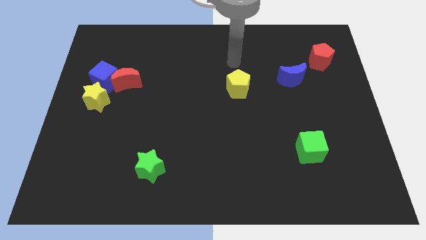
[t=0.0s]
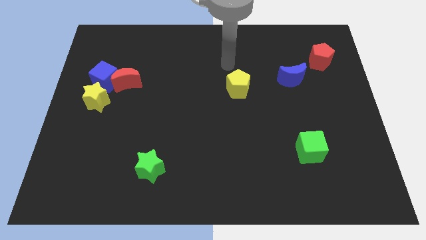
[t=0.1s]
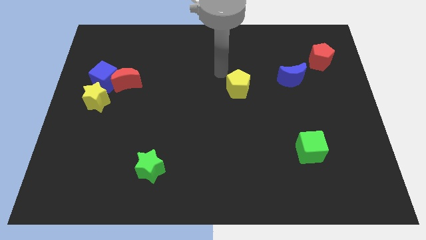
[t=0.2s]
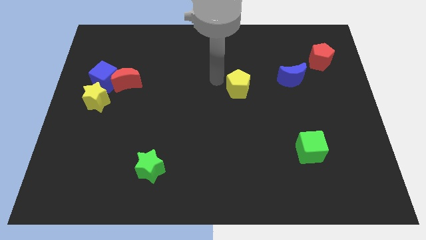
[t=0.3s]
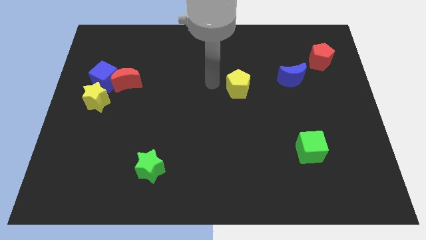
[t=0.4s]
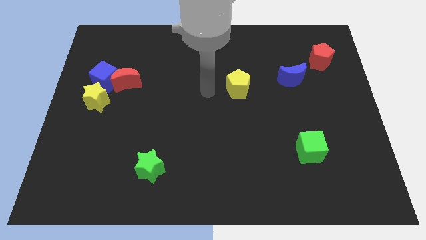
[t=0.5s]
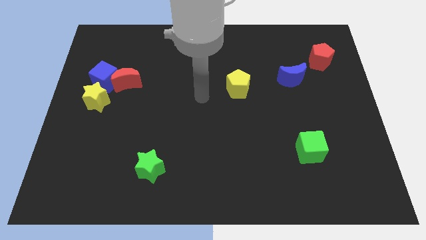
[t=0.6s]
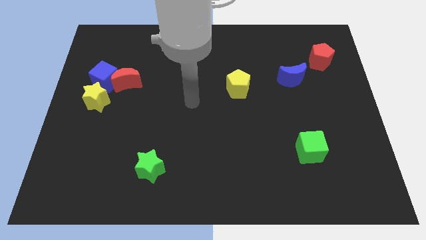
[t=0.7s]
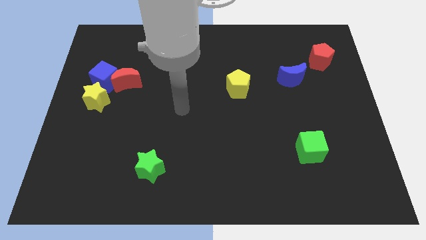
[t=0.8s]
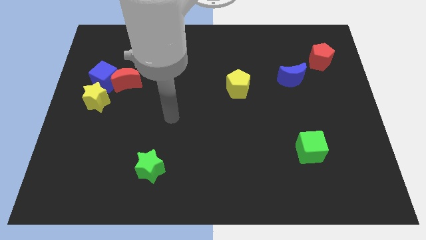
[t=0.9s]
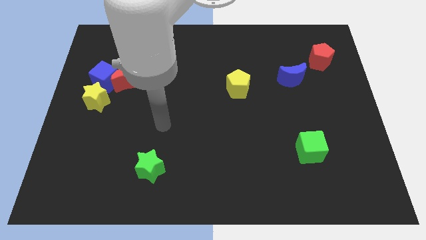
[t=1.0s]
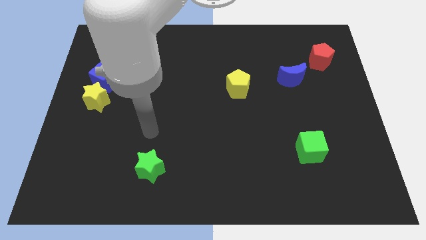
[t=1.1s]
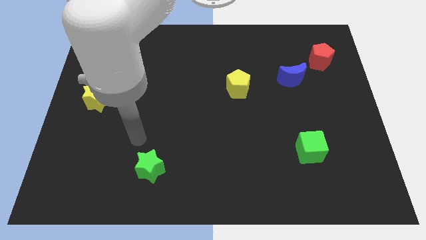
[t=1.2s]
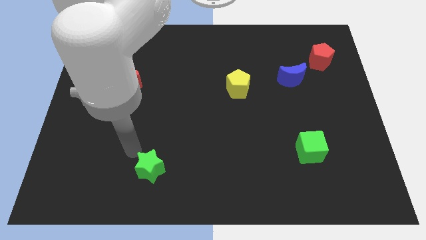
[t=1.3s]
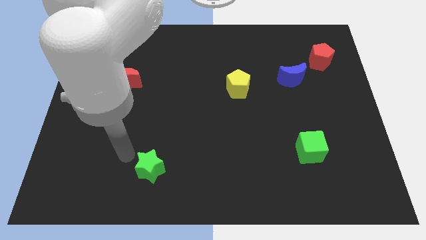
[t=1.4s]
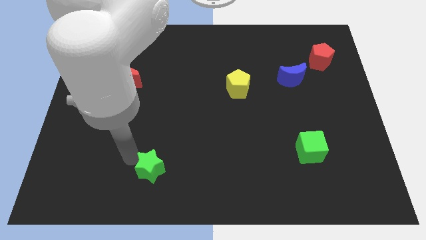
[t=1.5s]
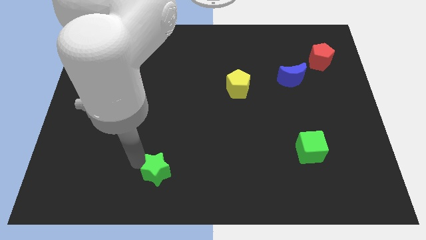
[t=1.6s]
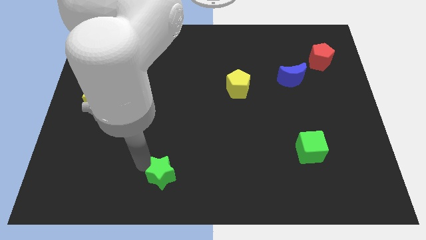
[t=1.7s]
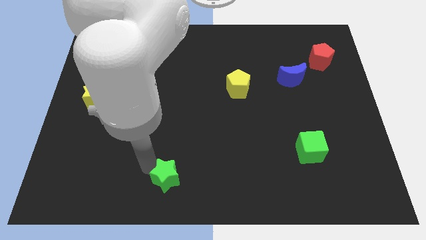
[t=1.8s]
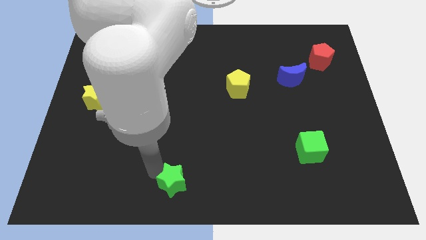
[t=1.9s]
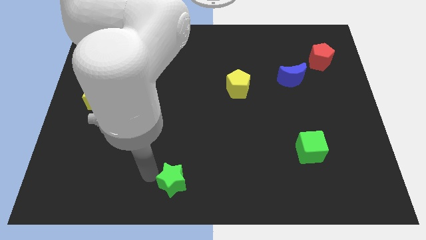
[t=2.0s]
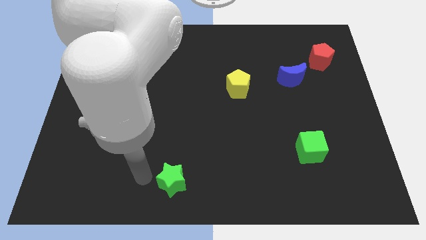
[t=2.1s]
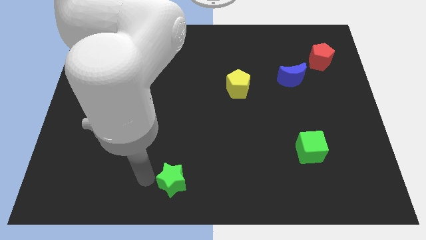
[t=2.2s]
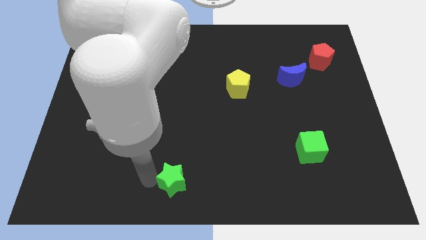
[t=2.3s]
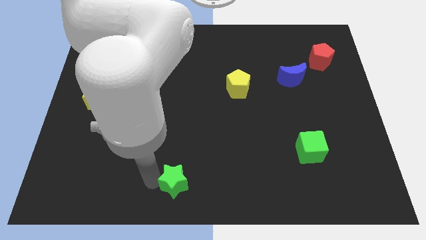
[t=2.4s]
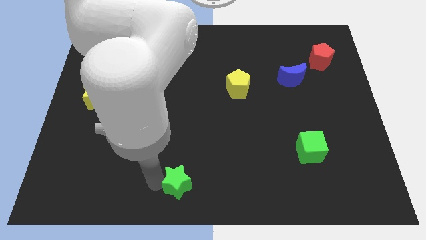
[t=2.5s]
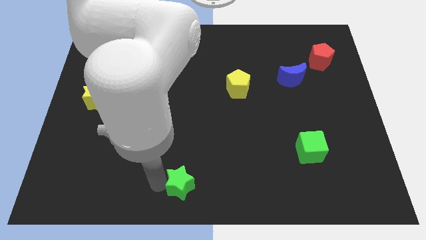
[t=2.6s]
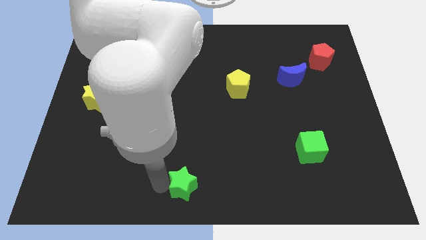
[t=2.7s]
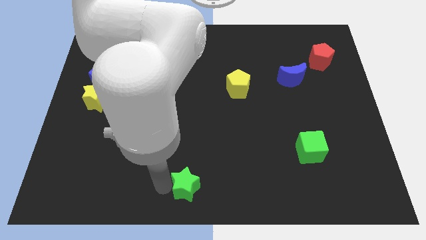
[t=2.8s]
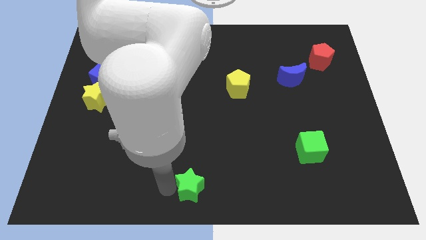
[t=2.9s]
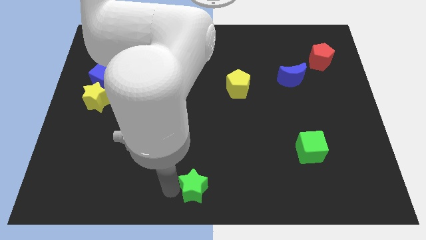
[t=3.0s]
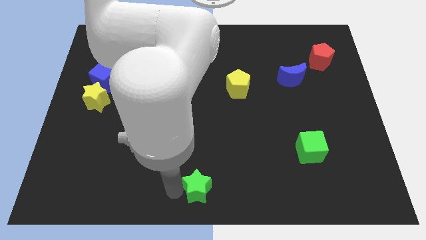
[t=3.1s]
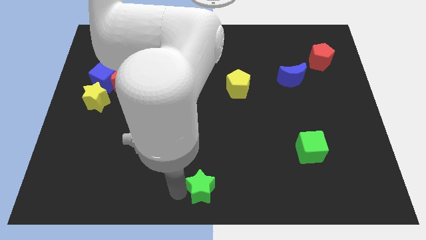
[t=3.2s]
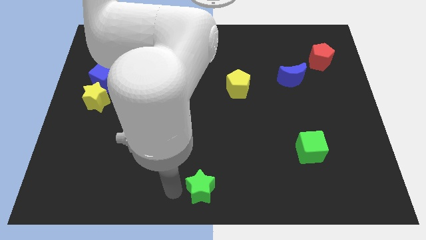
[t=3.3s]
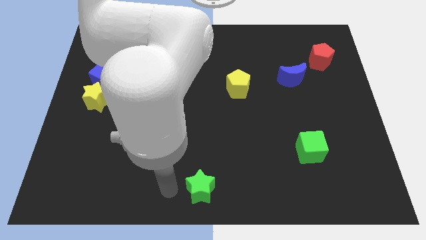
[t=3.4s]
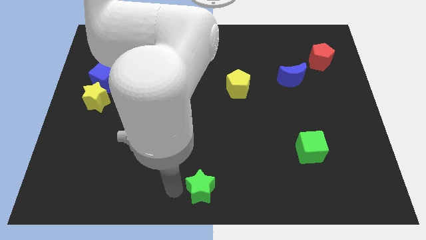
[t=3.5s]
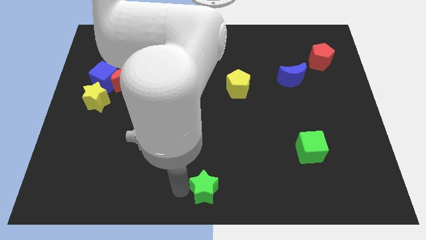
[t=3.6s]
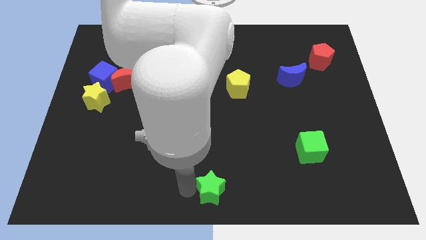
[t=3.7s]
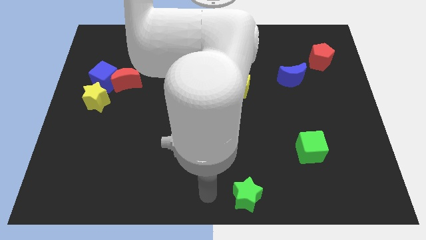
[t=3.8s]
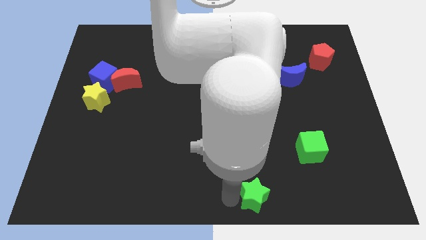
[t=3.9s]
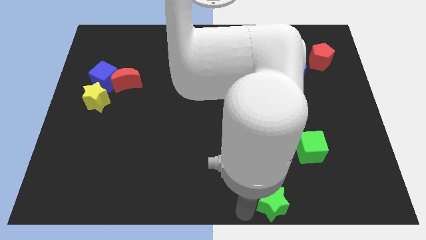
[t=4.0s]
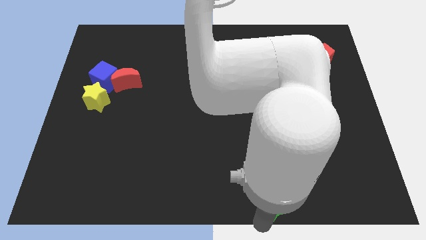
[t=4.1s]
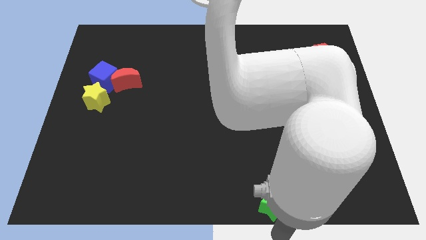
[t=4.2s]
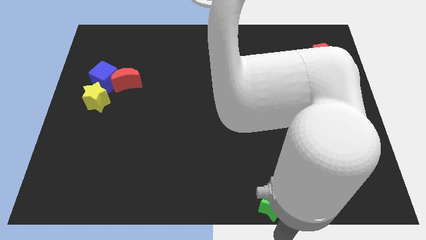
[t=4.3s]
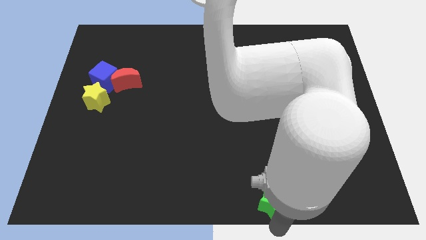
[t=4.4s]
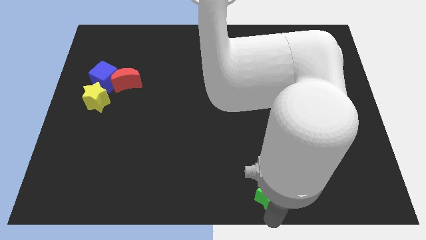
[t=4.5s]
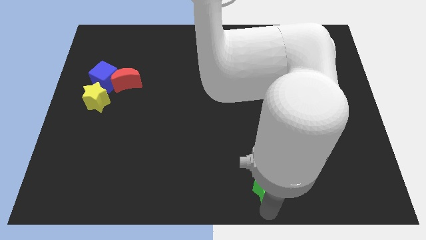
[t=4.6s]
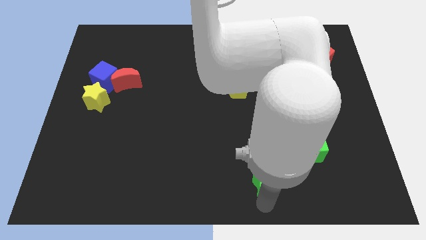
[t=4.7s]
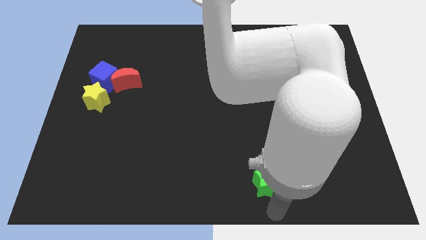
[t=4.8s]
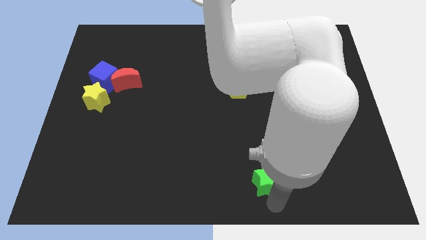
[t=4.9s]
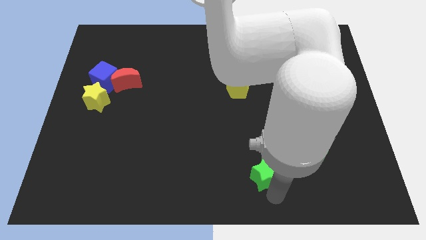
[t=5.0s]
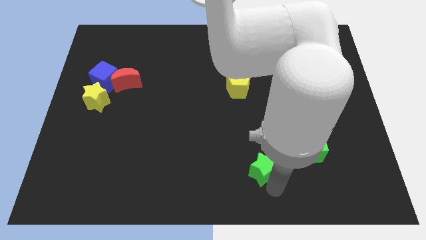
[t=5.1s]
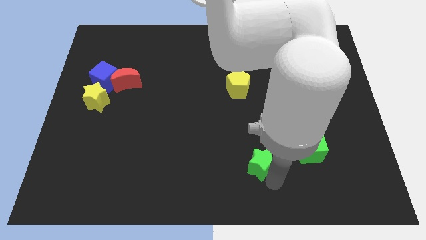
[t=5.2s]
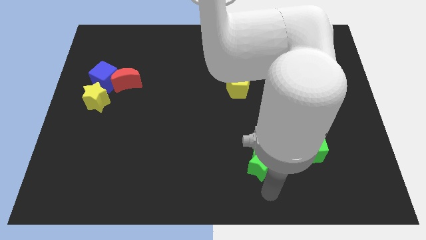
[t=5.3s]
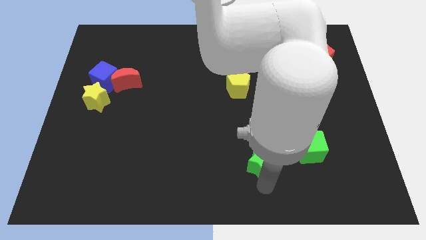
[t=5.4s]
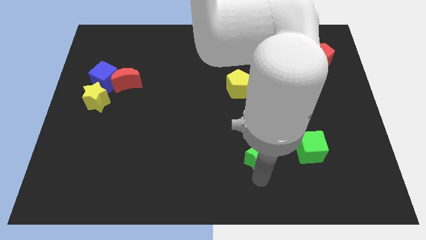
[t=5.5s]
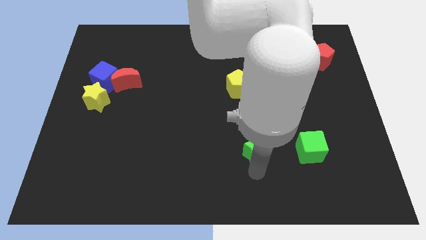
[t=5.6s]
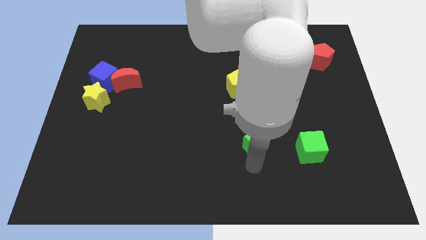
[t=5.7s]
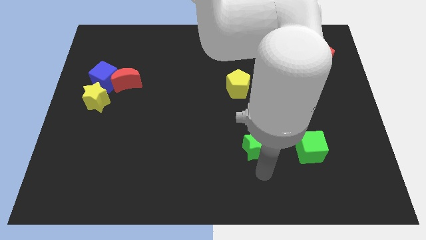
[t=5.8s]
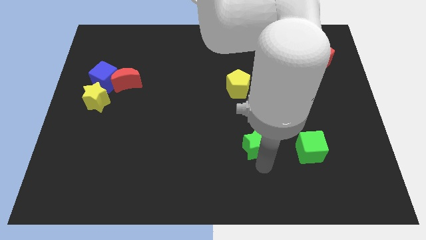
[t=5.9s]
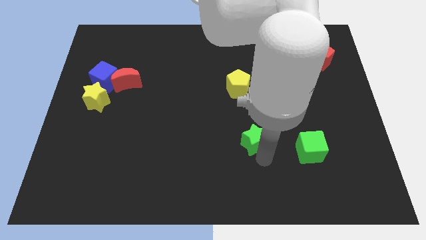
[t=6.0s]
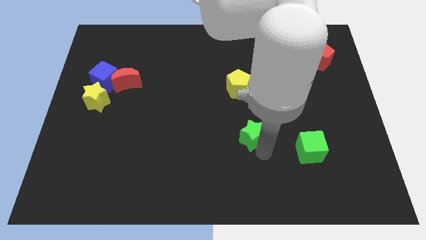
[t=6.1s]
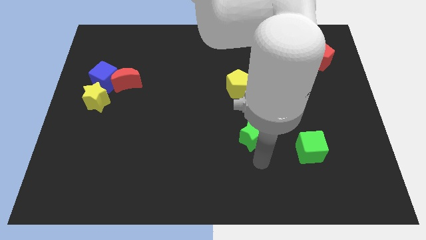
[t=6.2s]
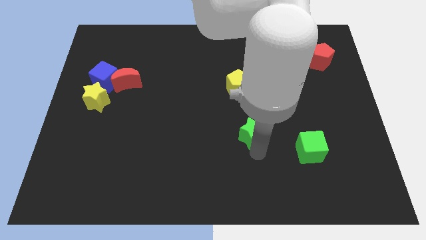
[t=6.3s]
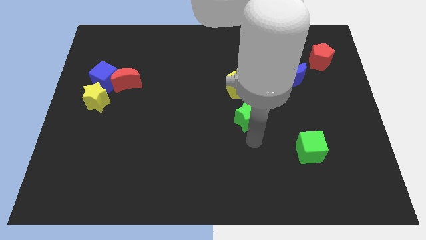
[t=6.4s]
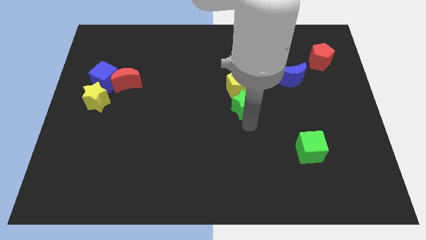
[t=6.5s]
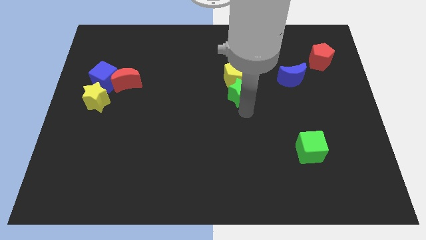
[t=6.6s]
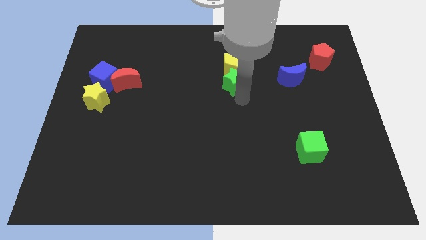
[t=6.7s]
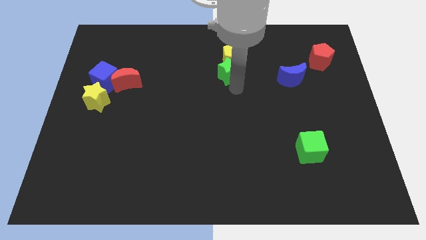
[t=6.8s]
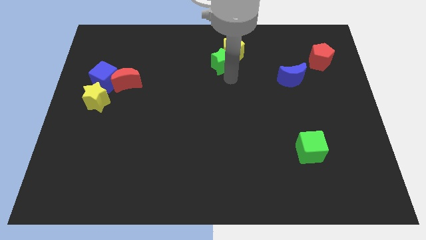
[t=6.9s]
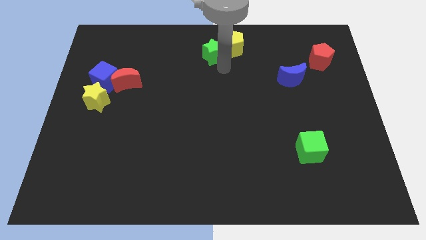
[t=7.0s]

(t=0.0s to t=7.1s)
push the green star to the top side
